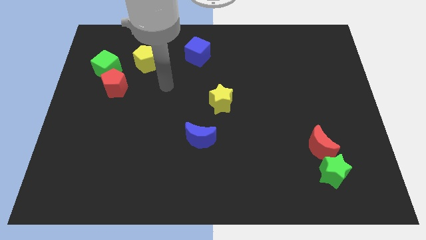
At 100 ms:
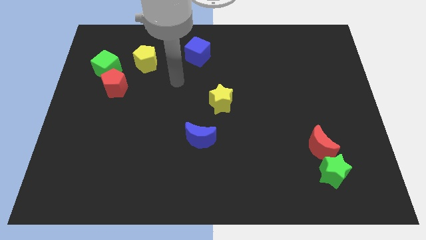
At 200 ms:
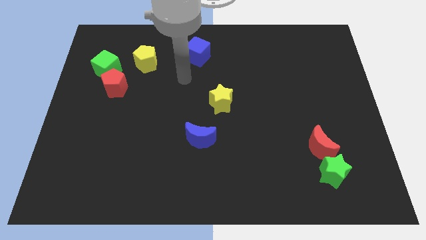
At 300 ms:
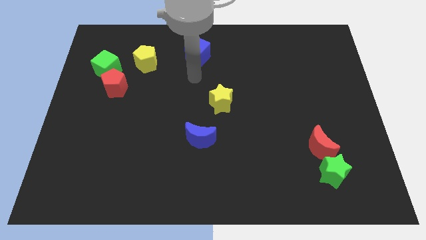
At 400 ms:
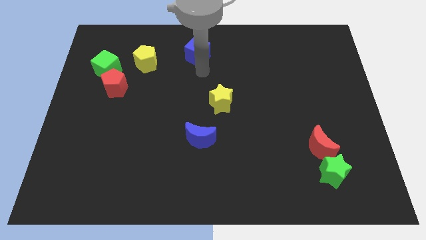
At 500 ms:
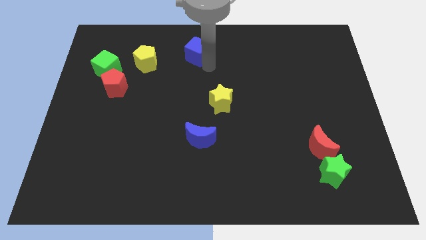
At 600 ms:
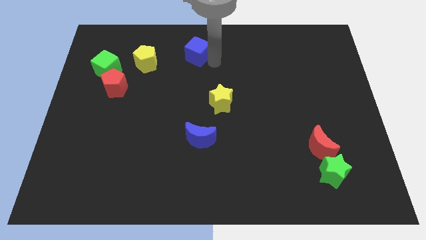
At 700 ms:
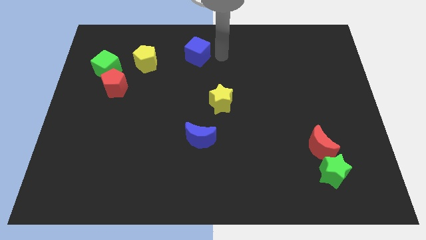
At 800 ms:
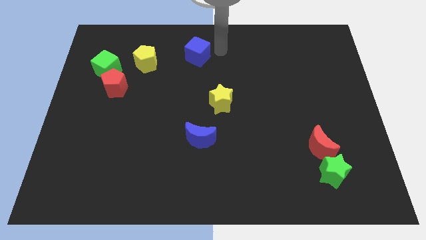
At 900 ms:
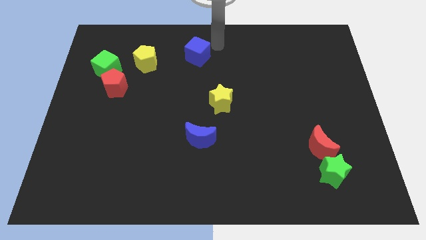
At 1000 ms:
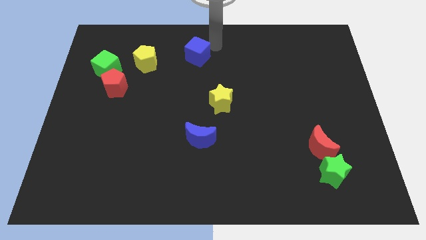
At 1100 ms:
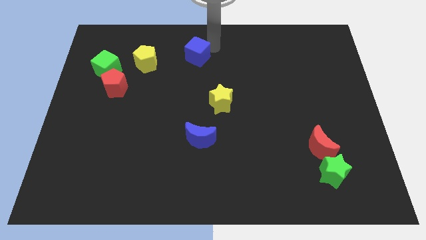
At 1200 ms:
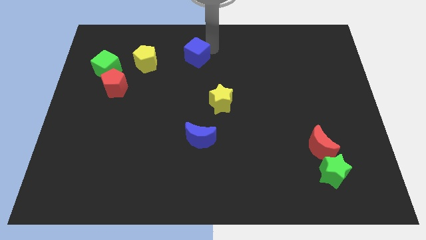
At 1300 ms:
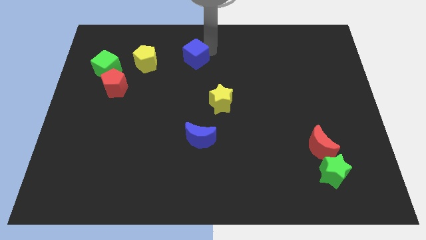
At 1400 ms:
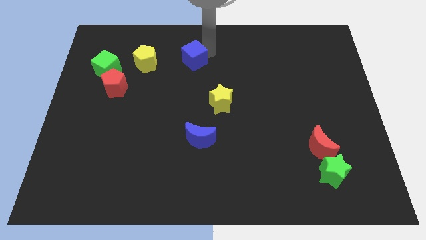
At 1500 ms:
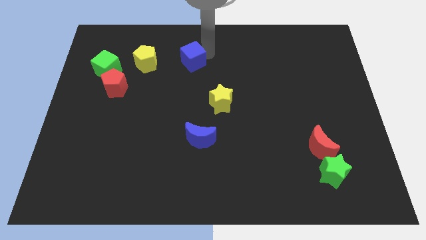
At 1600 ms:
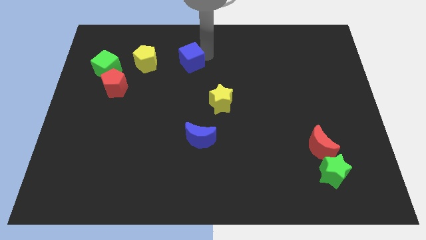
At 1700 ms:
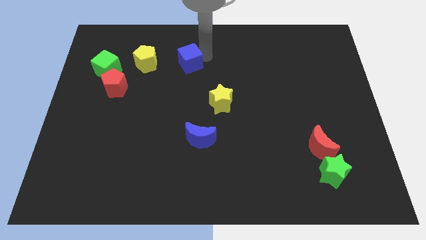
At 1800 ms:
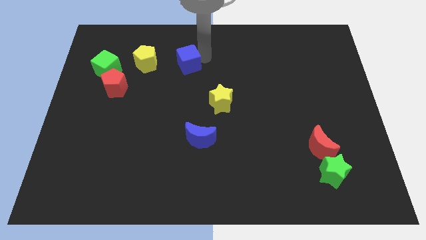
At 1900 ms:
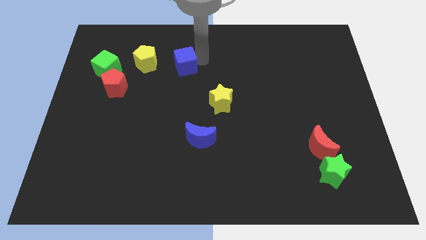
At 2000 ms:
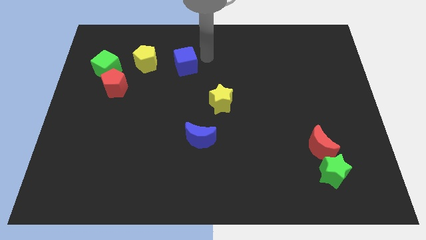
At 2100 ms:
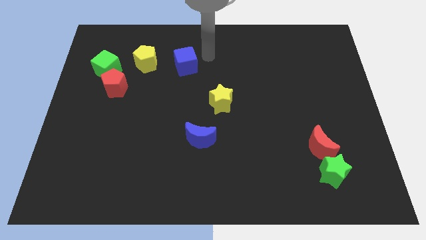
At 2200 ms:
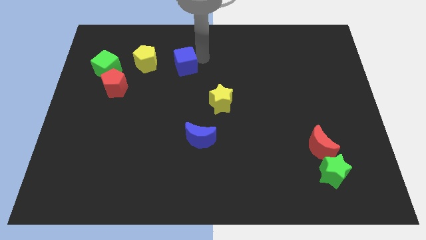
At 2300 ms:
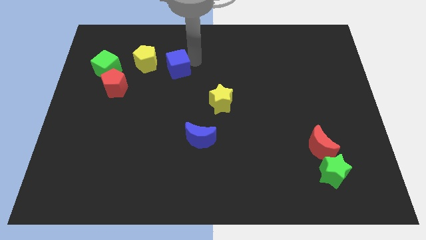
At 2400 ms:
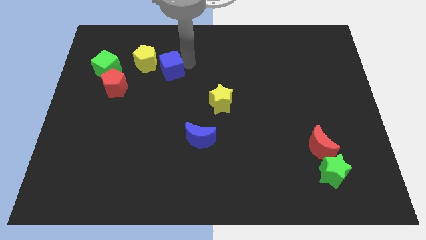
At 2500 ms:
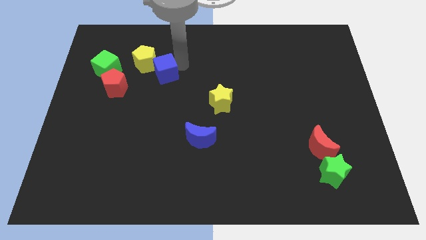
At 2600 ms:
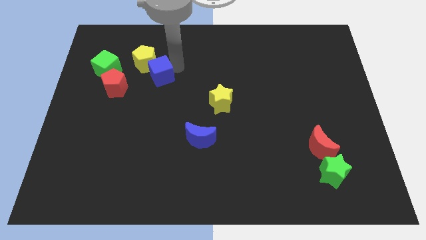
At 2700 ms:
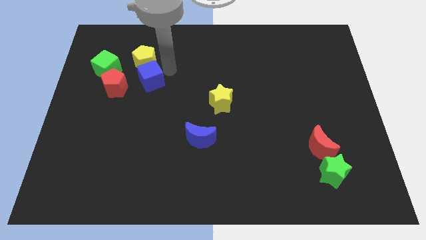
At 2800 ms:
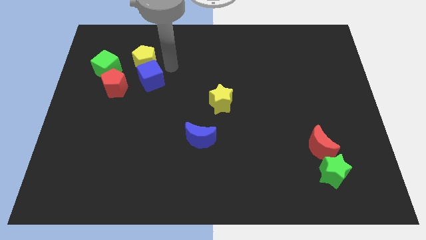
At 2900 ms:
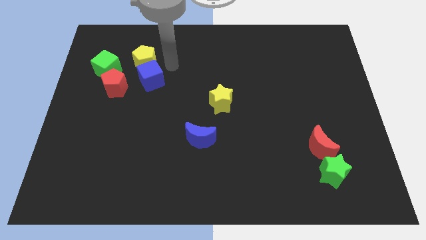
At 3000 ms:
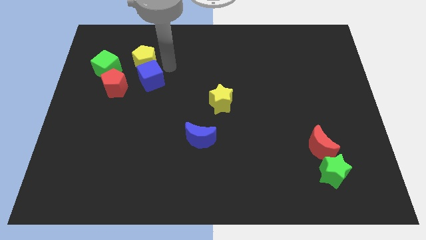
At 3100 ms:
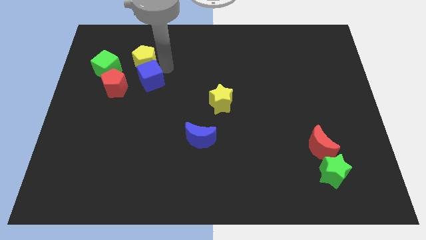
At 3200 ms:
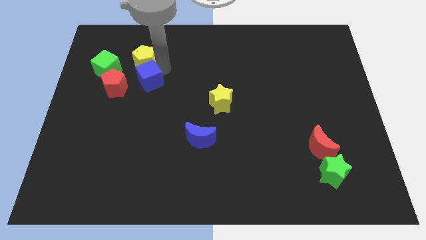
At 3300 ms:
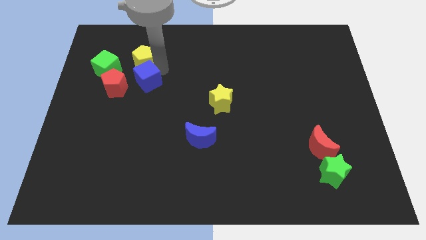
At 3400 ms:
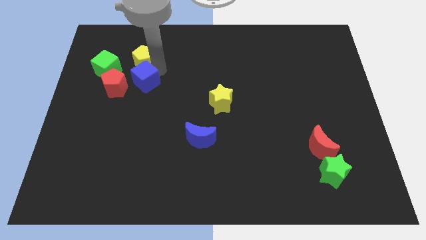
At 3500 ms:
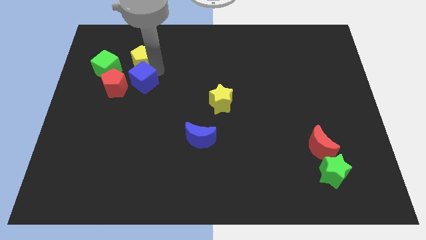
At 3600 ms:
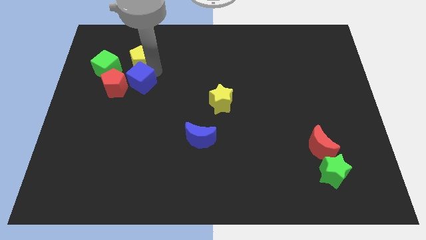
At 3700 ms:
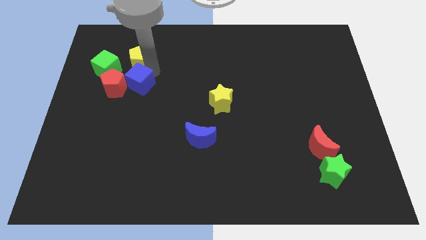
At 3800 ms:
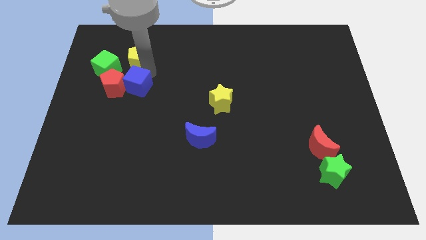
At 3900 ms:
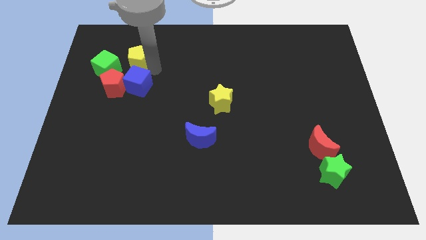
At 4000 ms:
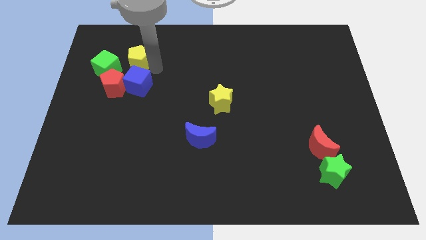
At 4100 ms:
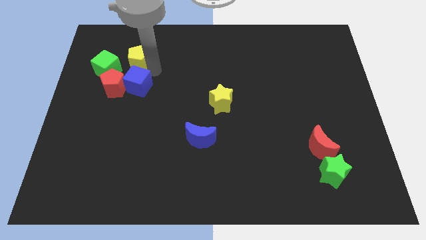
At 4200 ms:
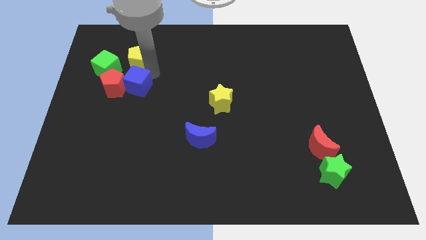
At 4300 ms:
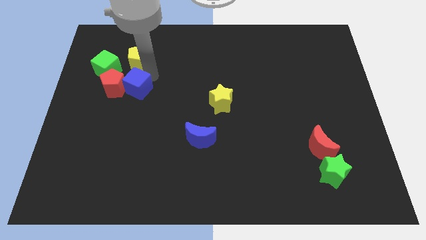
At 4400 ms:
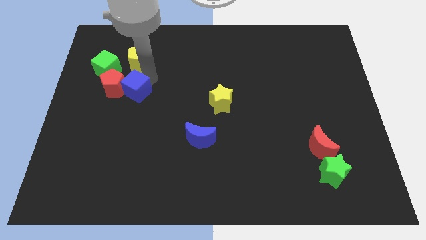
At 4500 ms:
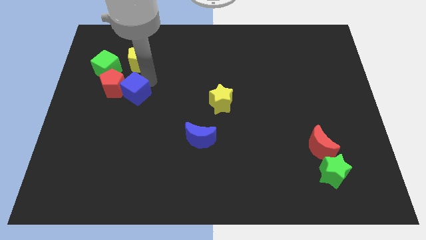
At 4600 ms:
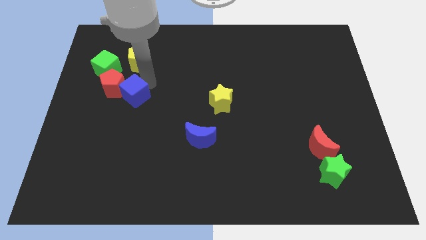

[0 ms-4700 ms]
push the blue cube diagonally downwards and left

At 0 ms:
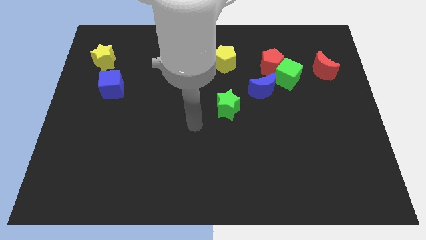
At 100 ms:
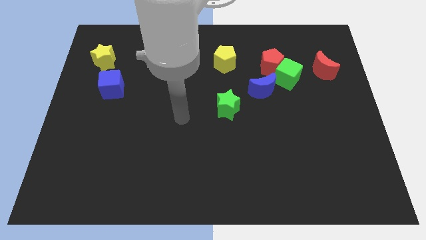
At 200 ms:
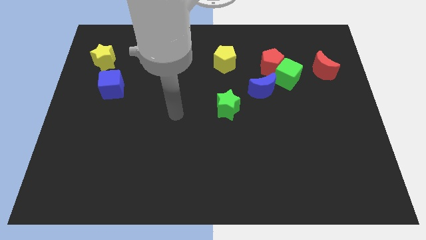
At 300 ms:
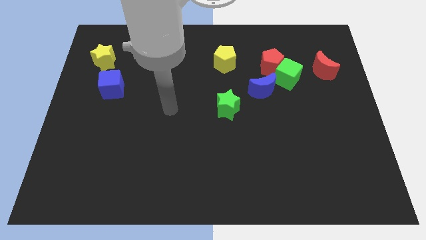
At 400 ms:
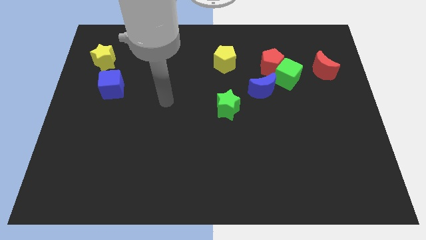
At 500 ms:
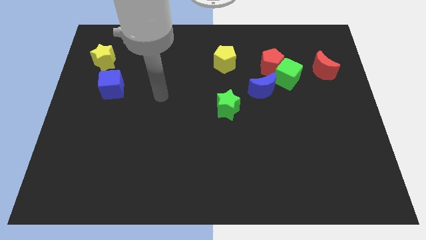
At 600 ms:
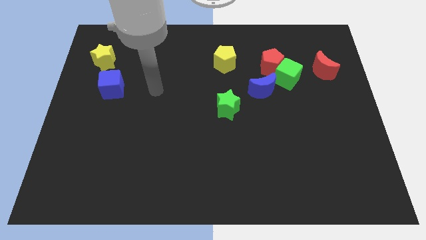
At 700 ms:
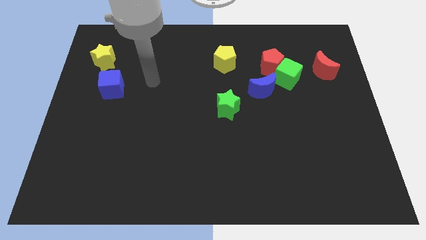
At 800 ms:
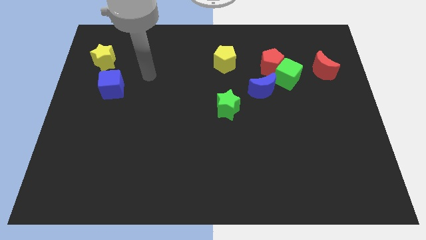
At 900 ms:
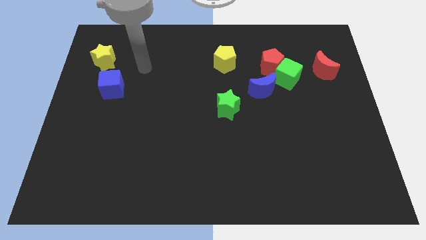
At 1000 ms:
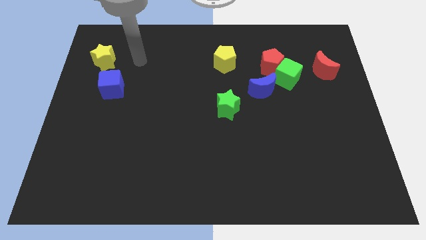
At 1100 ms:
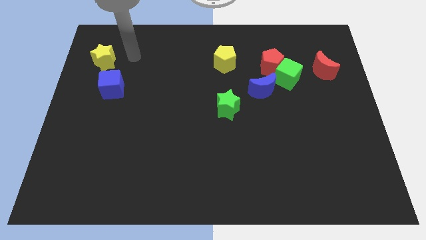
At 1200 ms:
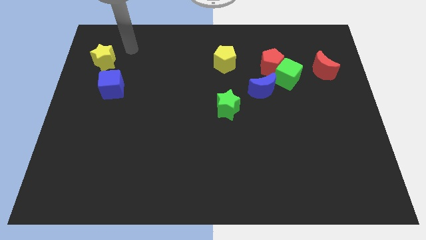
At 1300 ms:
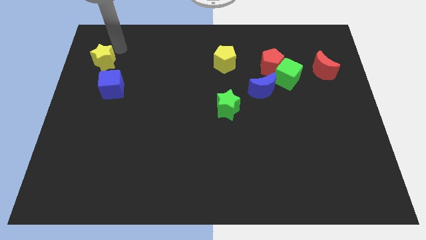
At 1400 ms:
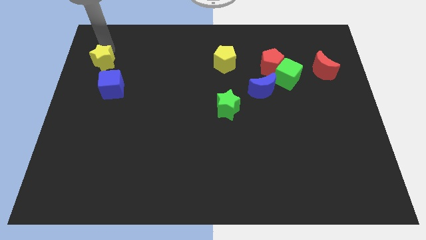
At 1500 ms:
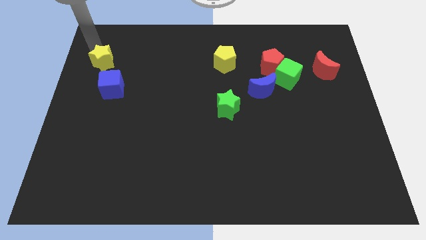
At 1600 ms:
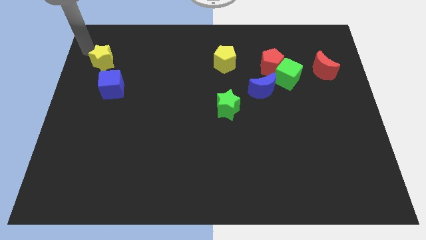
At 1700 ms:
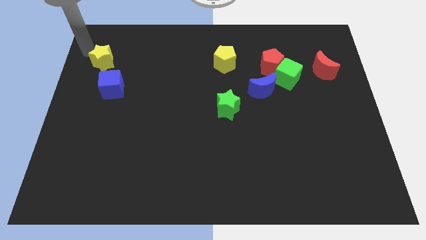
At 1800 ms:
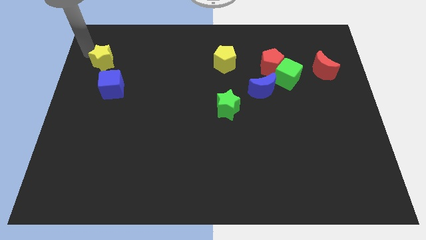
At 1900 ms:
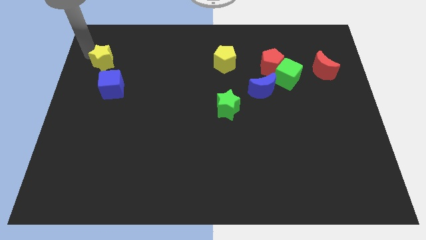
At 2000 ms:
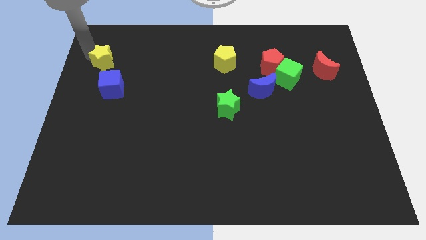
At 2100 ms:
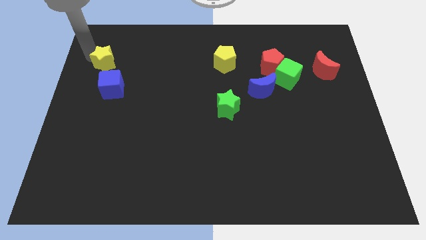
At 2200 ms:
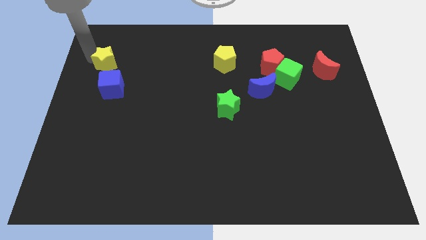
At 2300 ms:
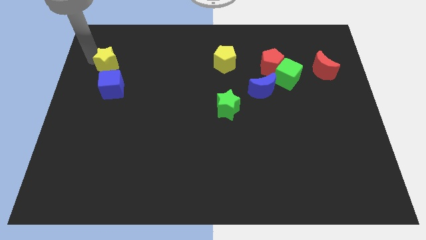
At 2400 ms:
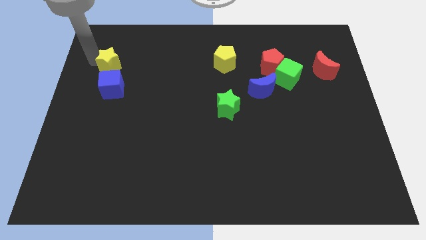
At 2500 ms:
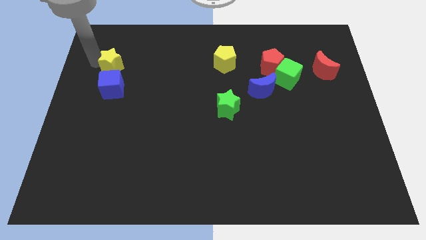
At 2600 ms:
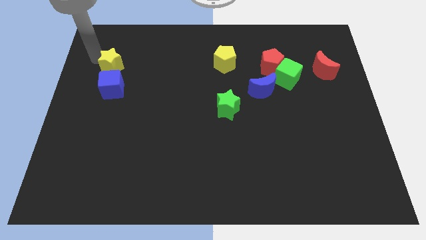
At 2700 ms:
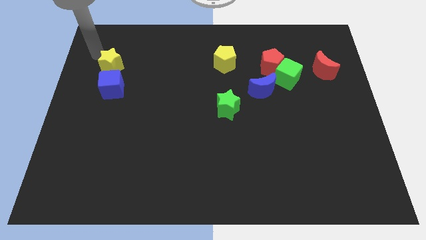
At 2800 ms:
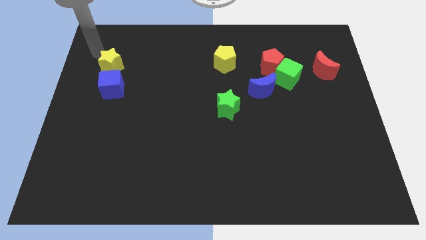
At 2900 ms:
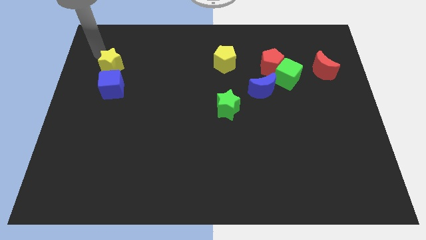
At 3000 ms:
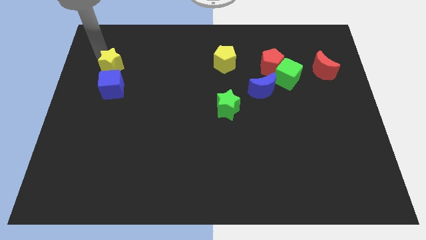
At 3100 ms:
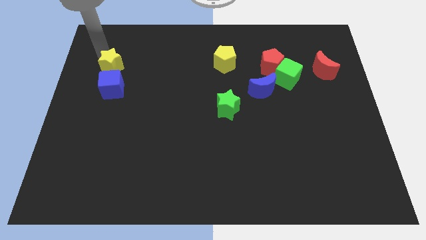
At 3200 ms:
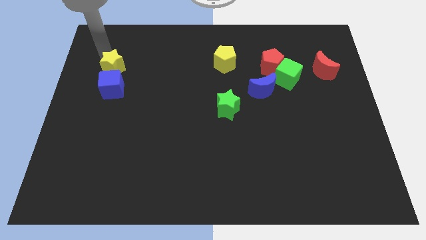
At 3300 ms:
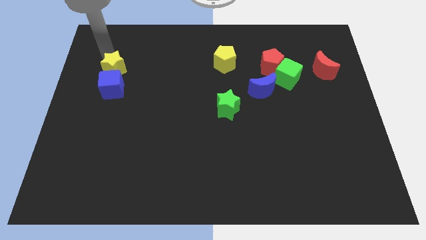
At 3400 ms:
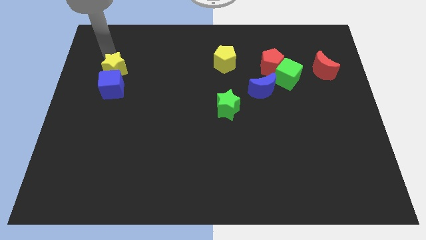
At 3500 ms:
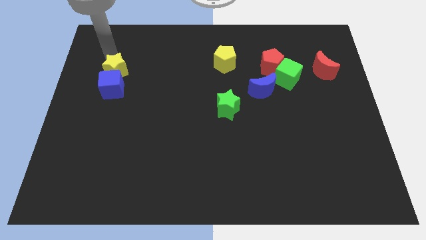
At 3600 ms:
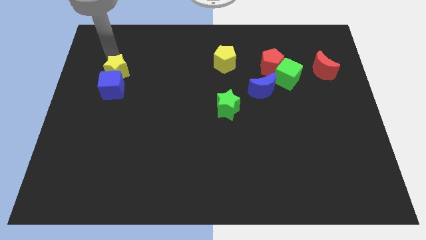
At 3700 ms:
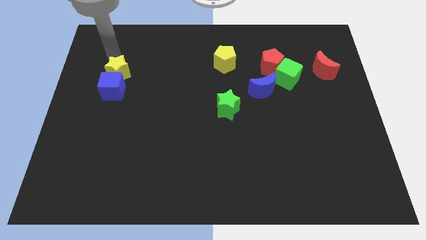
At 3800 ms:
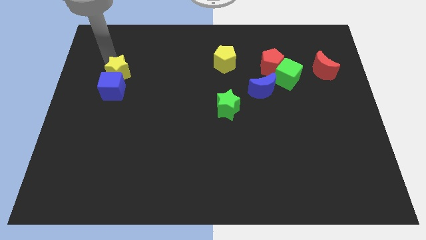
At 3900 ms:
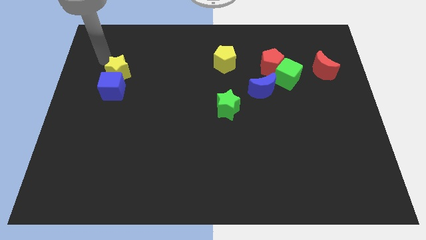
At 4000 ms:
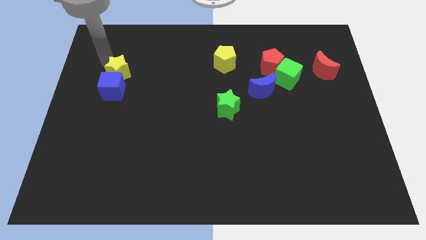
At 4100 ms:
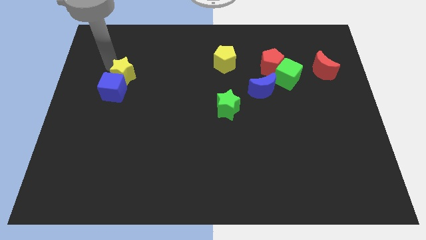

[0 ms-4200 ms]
slightly move the yellow star down and then right
